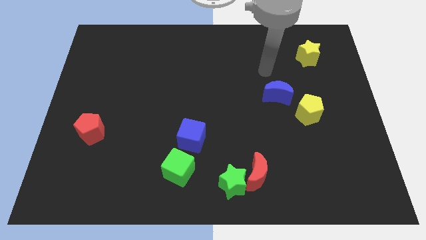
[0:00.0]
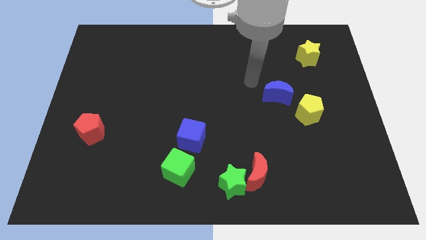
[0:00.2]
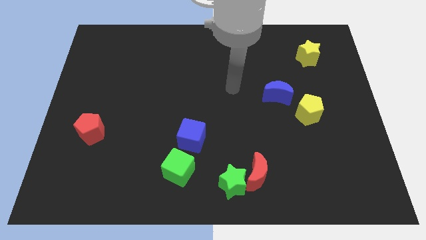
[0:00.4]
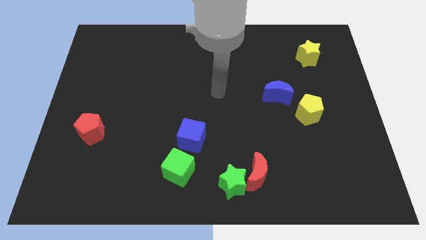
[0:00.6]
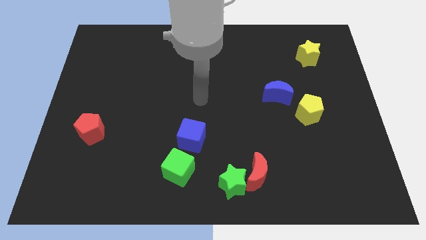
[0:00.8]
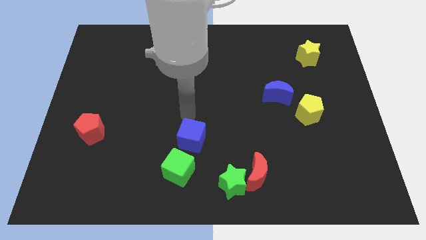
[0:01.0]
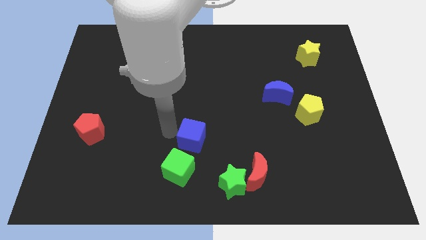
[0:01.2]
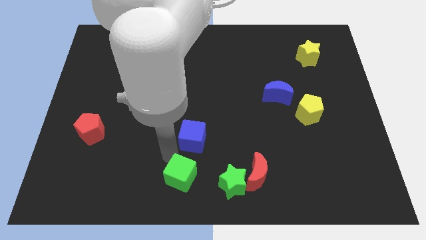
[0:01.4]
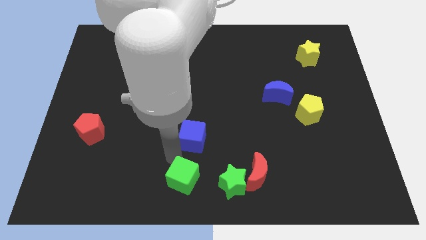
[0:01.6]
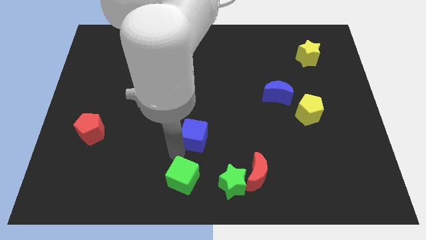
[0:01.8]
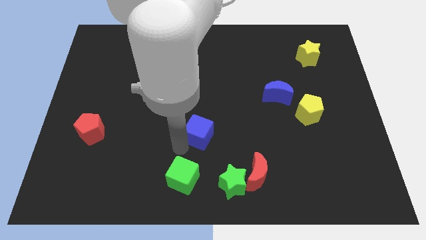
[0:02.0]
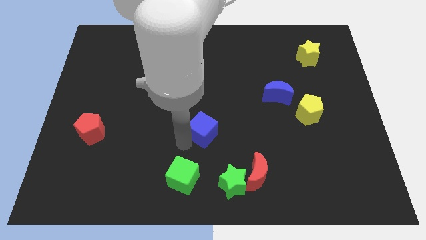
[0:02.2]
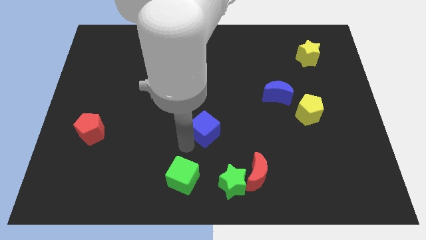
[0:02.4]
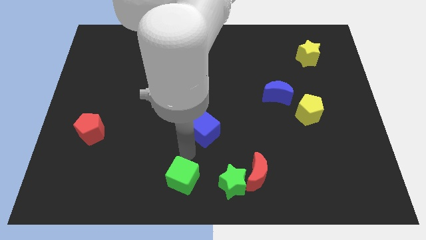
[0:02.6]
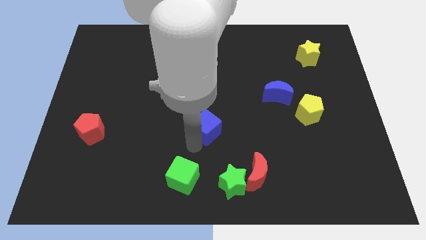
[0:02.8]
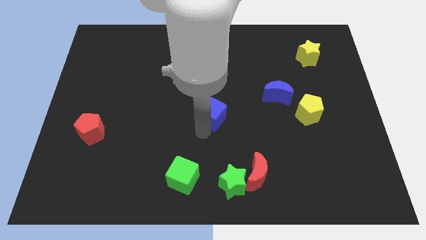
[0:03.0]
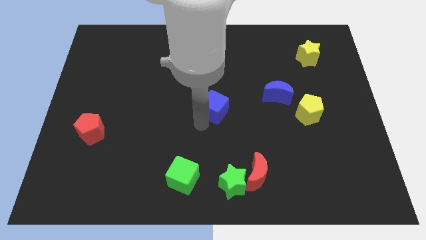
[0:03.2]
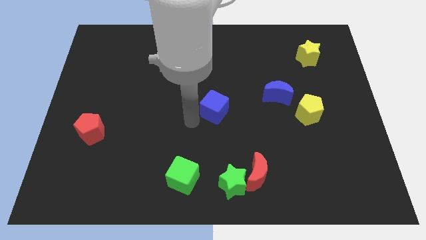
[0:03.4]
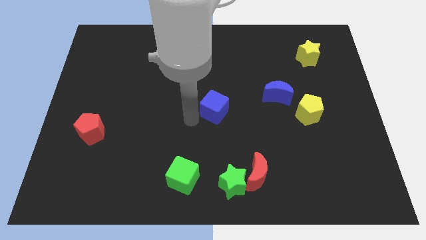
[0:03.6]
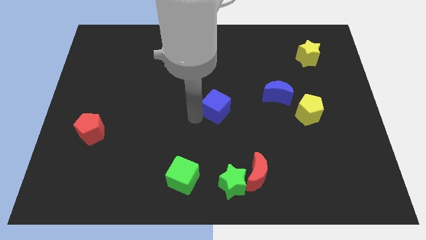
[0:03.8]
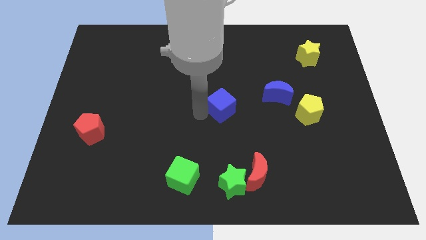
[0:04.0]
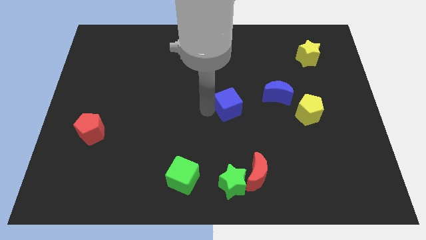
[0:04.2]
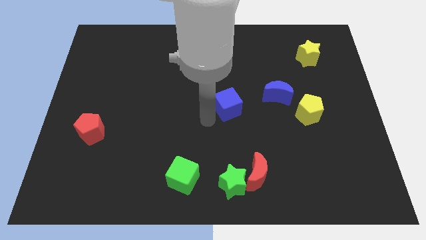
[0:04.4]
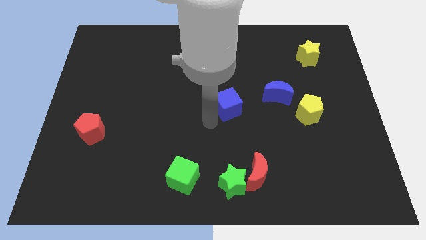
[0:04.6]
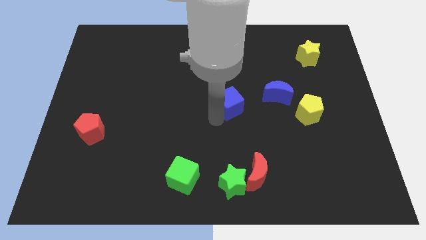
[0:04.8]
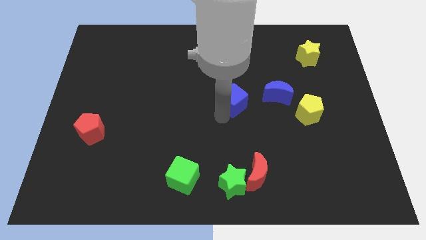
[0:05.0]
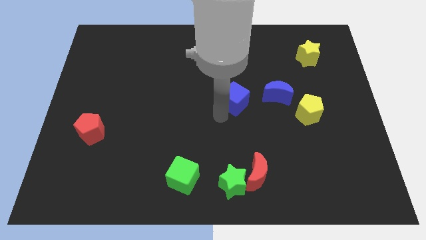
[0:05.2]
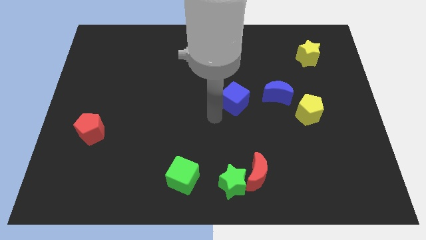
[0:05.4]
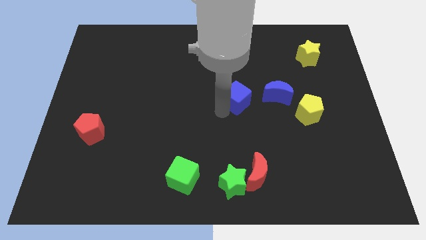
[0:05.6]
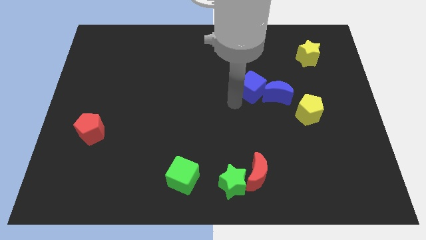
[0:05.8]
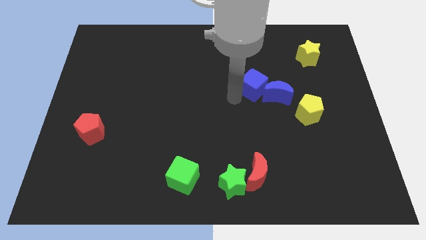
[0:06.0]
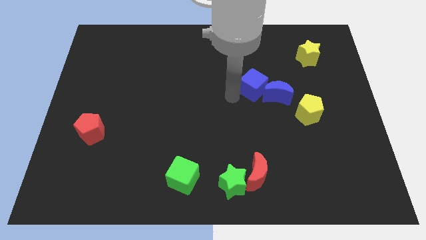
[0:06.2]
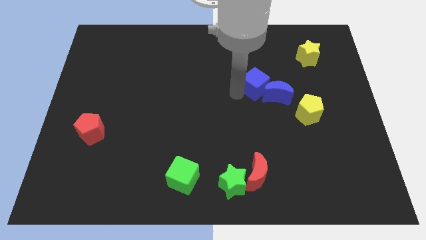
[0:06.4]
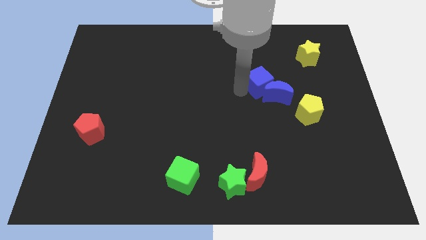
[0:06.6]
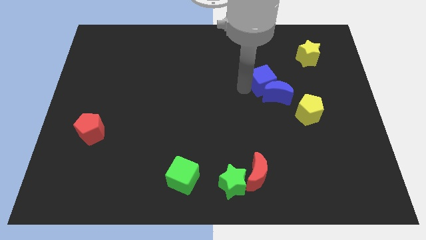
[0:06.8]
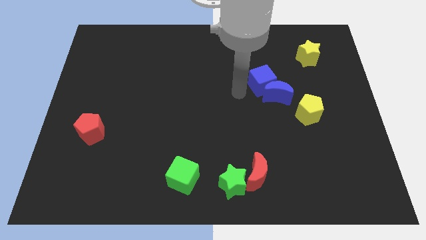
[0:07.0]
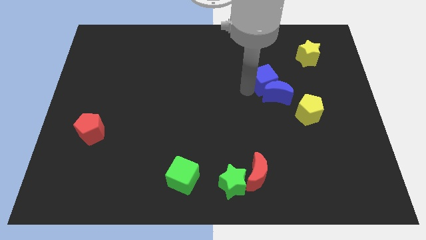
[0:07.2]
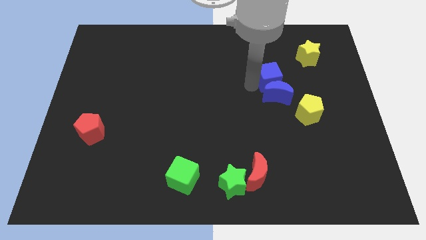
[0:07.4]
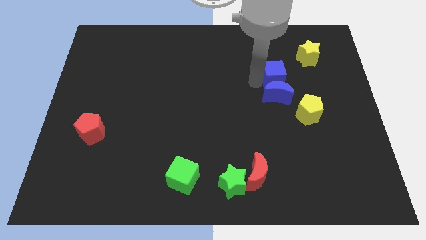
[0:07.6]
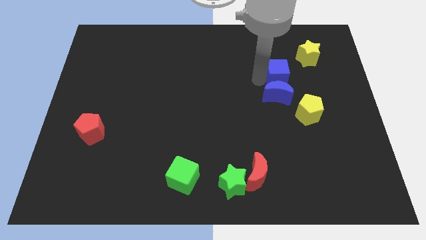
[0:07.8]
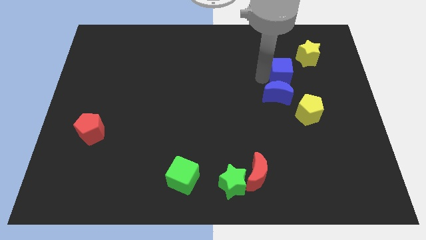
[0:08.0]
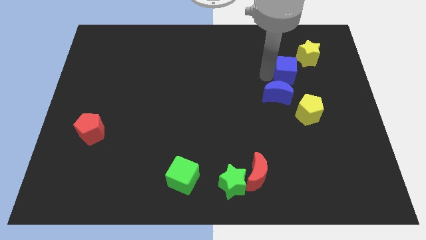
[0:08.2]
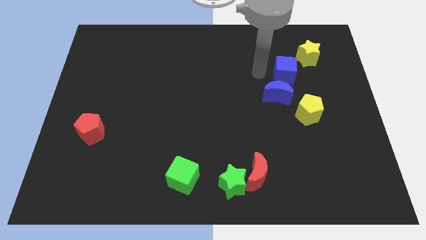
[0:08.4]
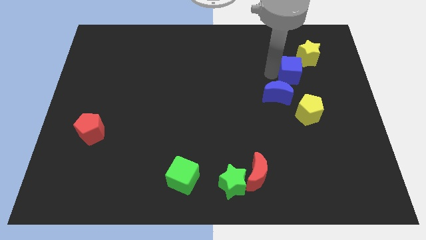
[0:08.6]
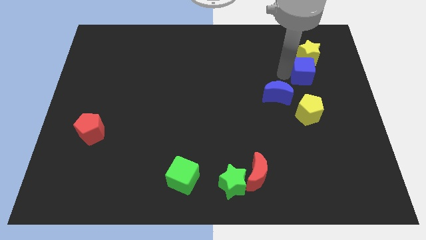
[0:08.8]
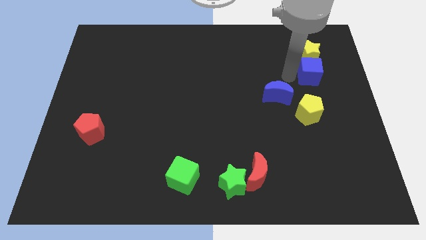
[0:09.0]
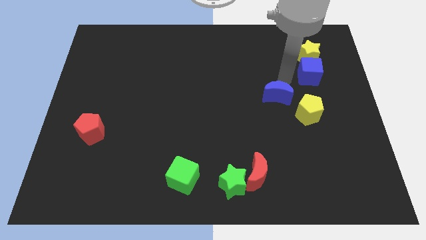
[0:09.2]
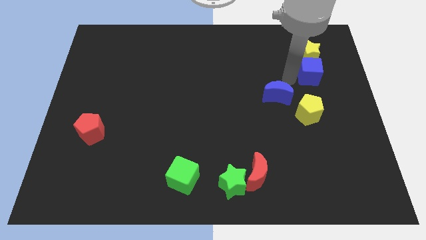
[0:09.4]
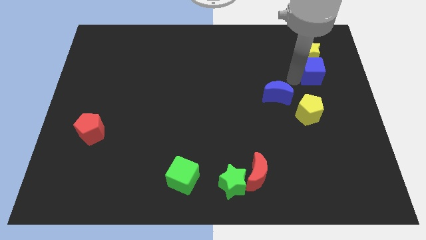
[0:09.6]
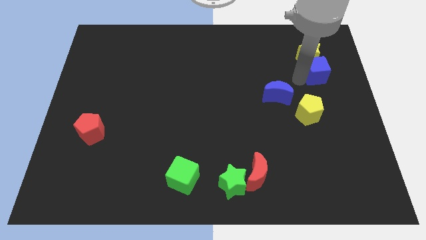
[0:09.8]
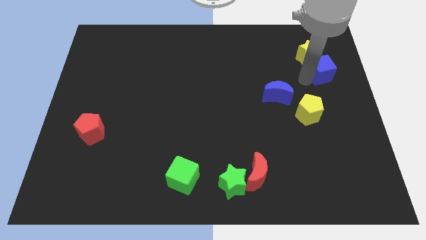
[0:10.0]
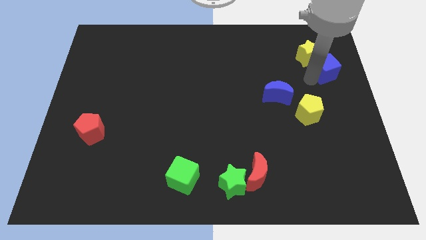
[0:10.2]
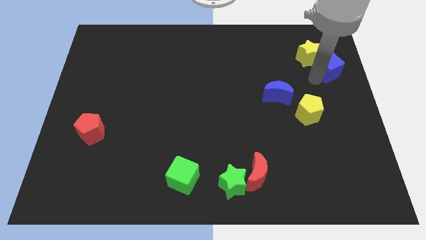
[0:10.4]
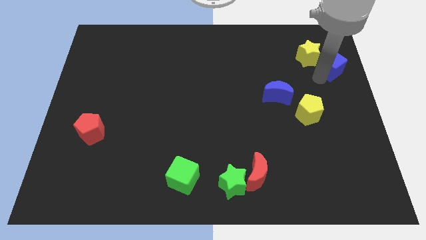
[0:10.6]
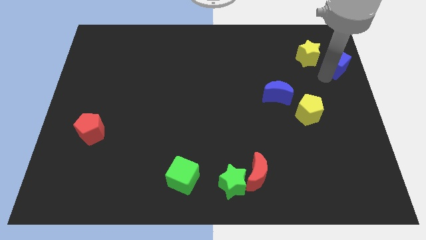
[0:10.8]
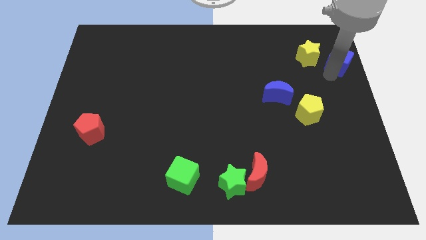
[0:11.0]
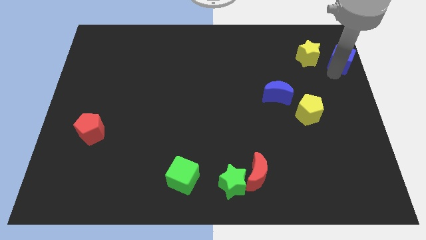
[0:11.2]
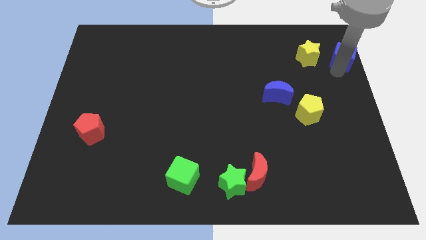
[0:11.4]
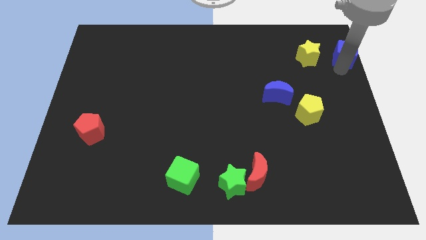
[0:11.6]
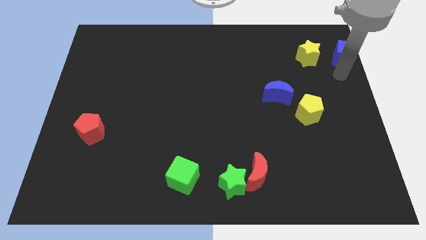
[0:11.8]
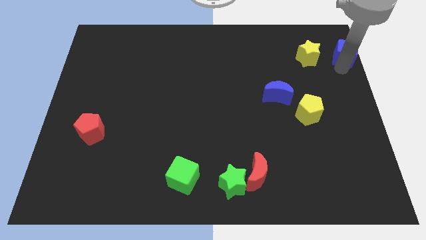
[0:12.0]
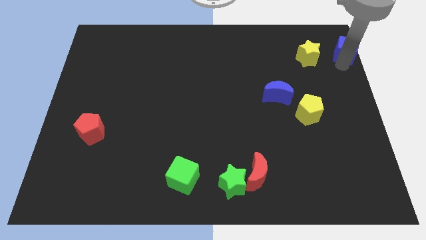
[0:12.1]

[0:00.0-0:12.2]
put the blue cube to the upper right corner

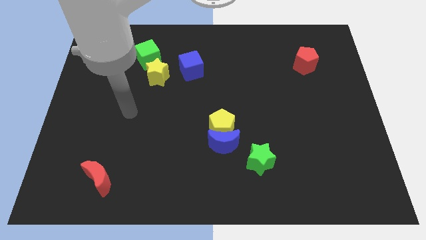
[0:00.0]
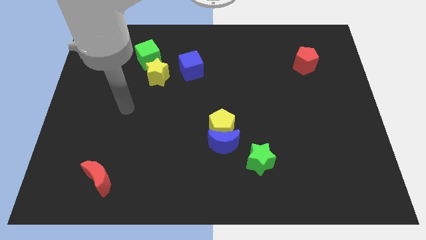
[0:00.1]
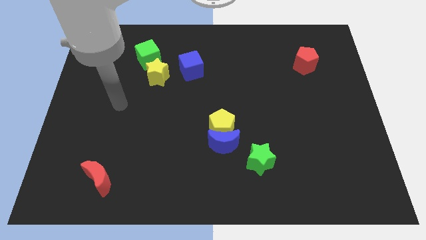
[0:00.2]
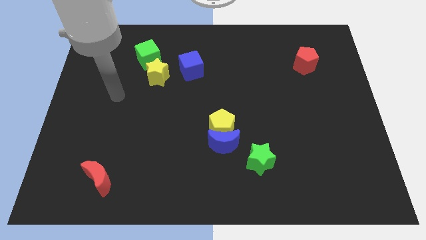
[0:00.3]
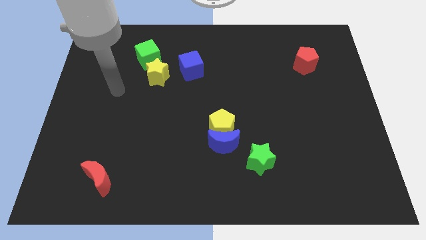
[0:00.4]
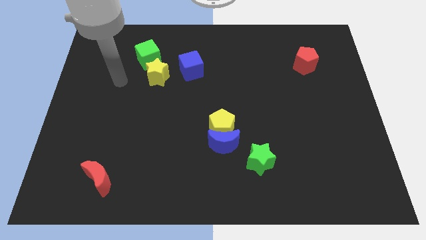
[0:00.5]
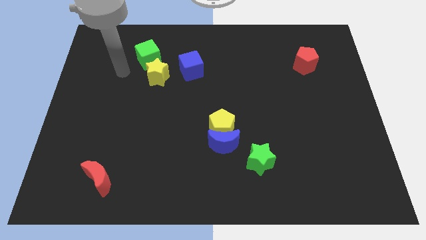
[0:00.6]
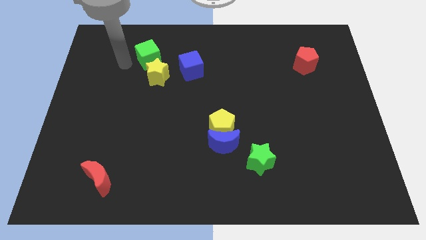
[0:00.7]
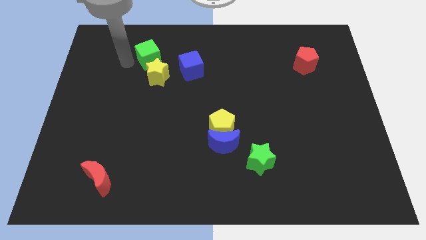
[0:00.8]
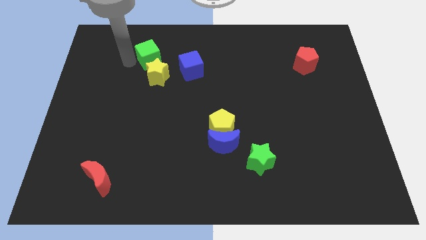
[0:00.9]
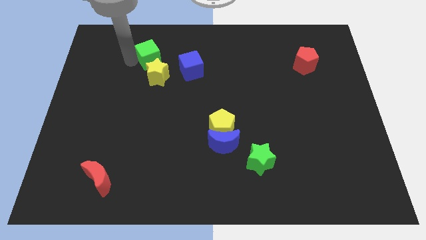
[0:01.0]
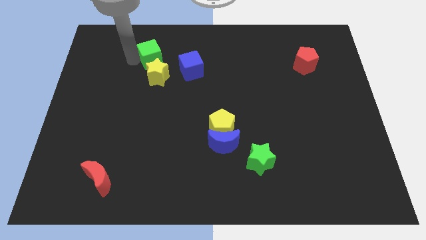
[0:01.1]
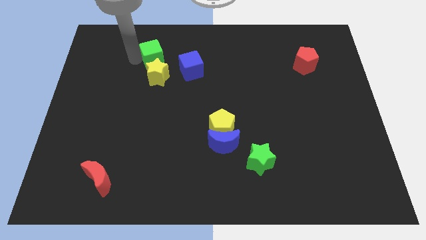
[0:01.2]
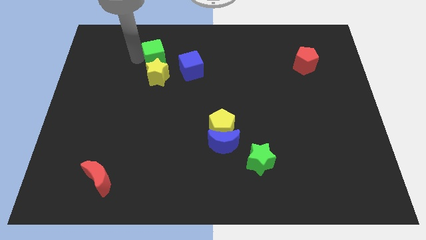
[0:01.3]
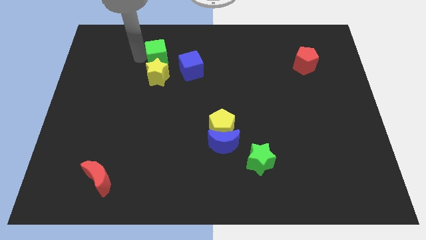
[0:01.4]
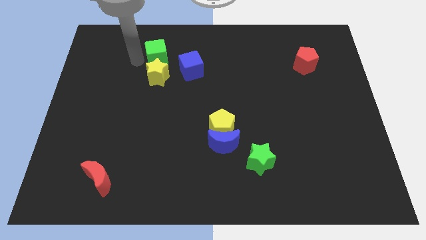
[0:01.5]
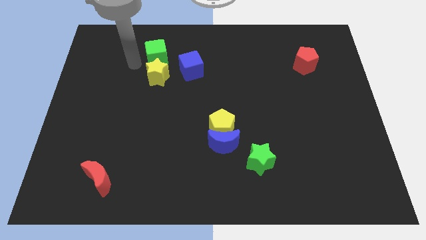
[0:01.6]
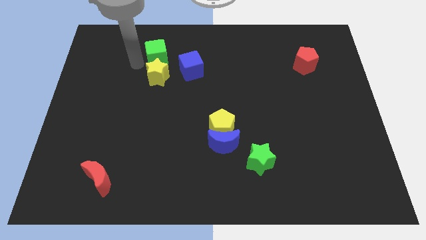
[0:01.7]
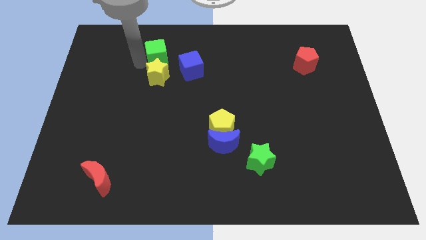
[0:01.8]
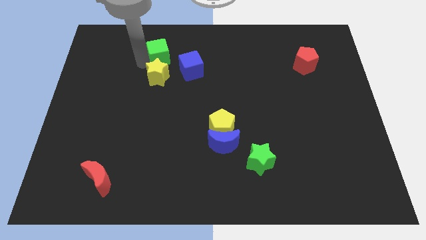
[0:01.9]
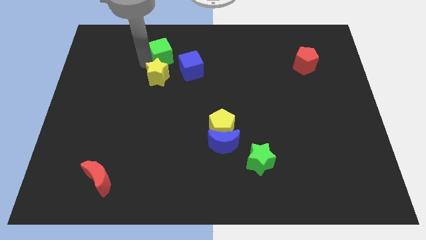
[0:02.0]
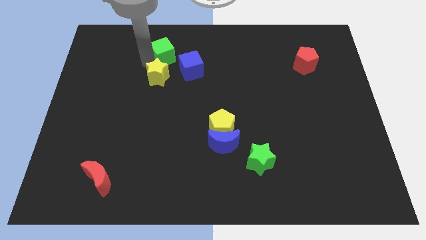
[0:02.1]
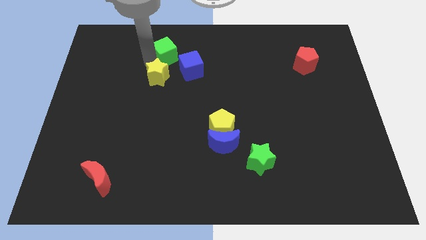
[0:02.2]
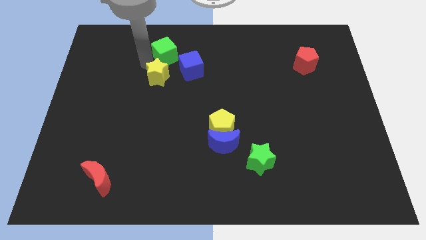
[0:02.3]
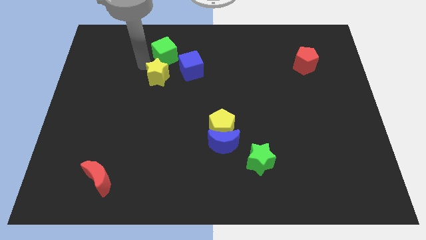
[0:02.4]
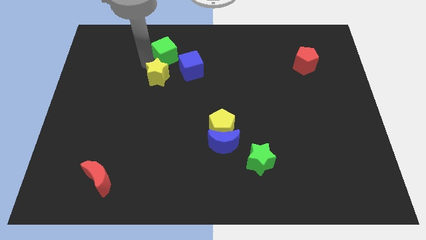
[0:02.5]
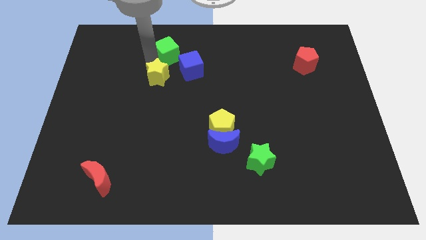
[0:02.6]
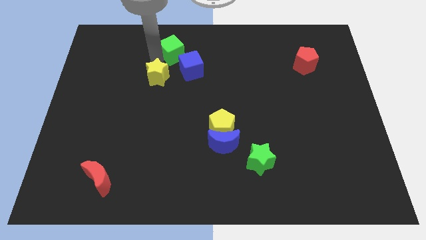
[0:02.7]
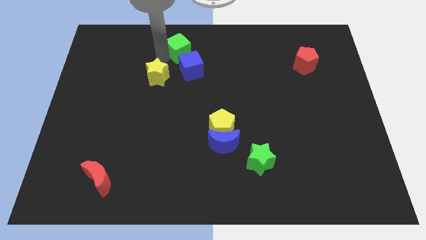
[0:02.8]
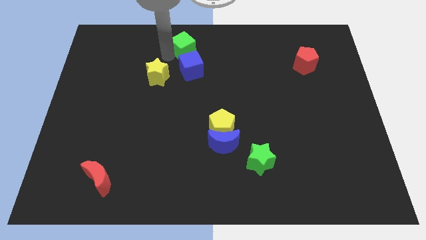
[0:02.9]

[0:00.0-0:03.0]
put the green cube to the towards your base
